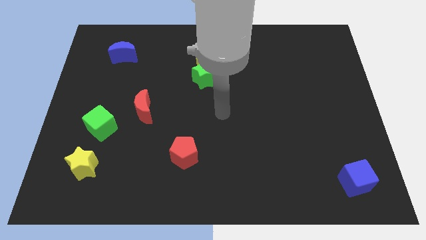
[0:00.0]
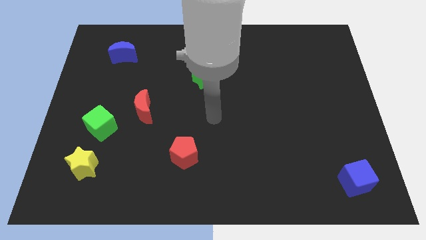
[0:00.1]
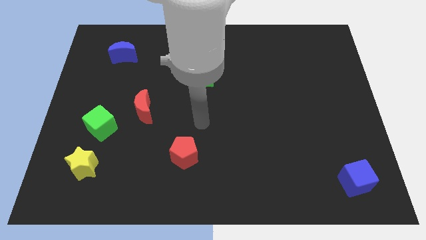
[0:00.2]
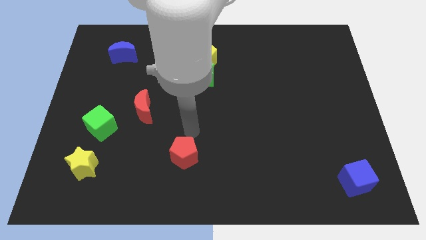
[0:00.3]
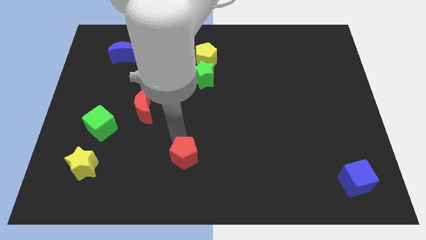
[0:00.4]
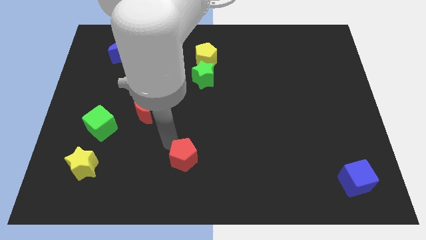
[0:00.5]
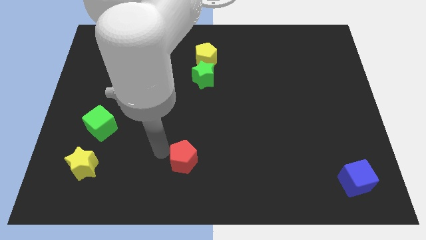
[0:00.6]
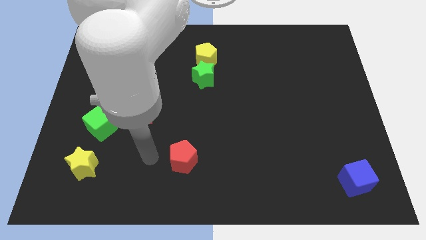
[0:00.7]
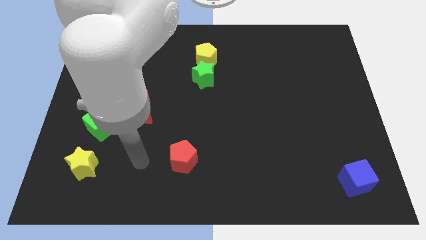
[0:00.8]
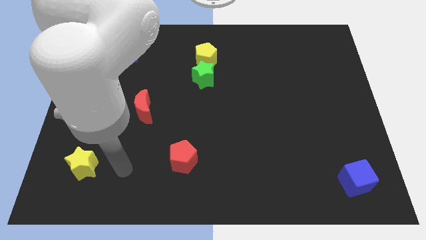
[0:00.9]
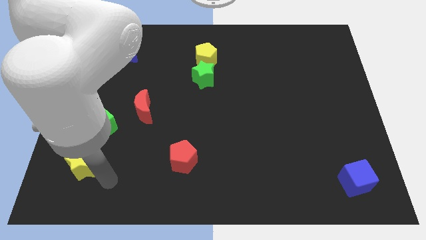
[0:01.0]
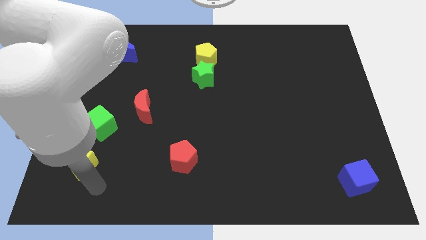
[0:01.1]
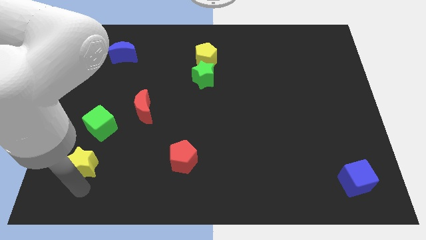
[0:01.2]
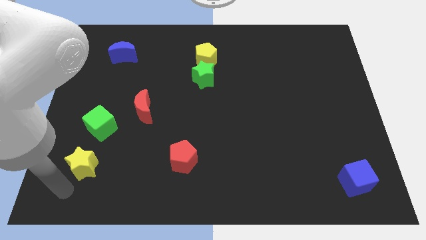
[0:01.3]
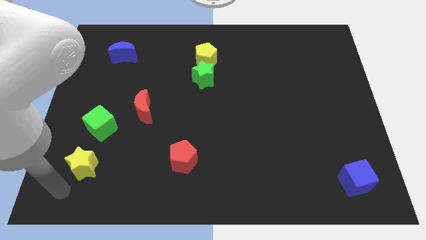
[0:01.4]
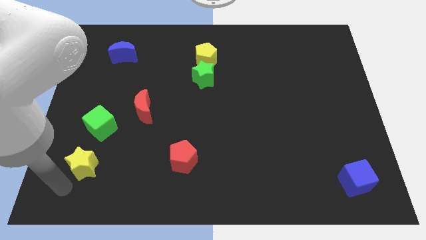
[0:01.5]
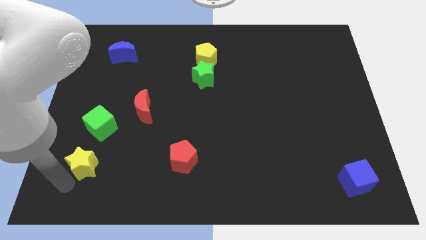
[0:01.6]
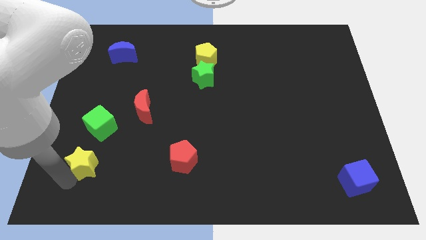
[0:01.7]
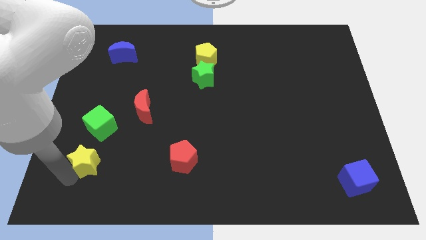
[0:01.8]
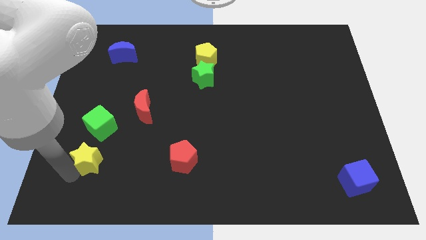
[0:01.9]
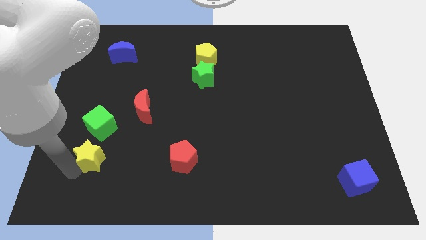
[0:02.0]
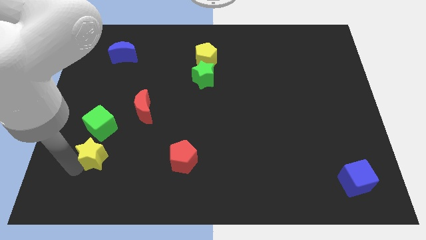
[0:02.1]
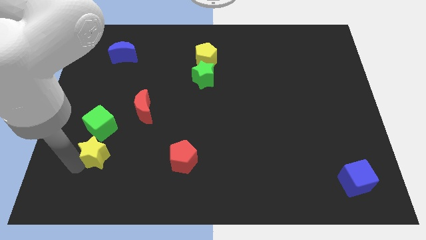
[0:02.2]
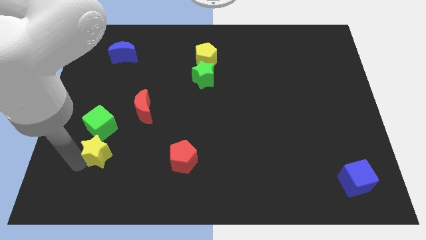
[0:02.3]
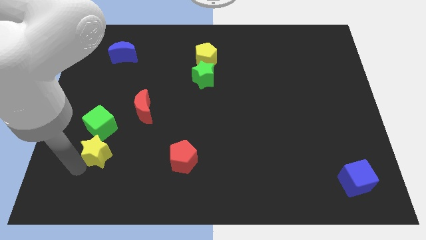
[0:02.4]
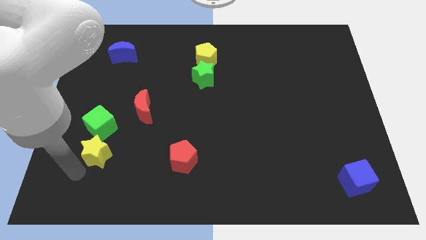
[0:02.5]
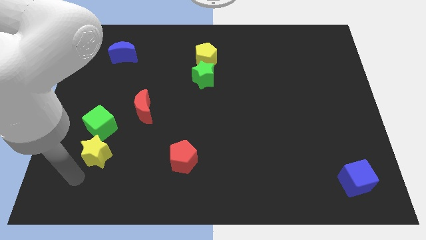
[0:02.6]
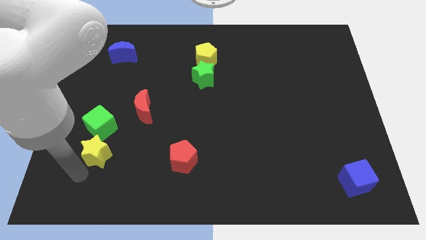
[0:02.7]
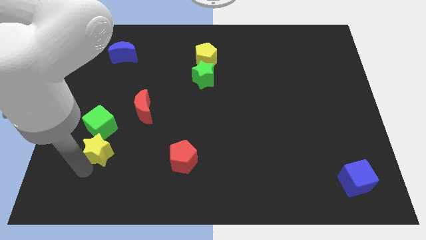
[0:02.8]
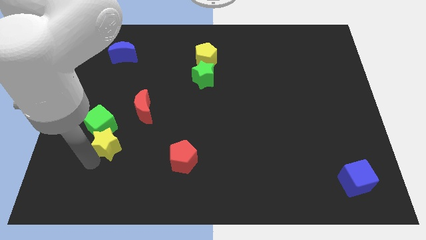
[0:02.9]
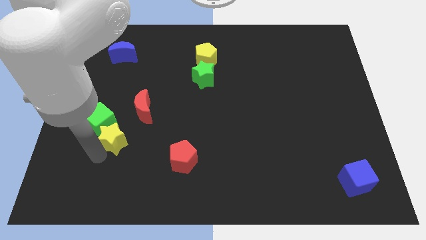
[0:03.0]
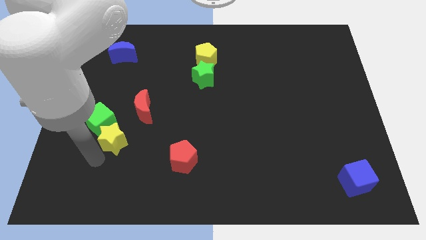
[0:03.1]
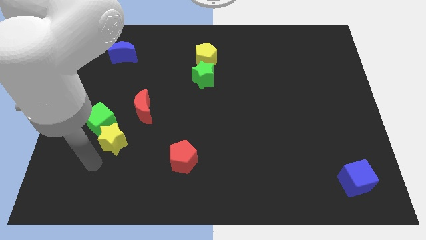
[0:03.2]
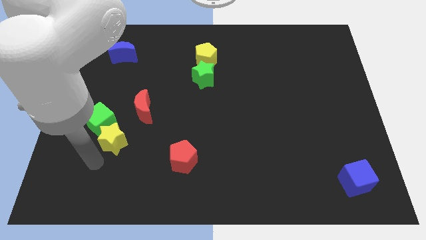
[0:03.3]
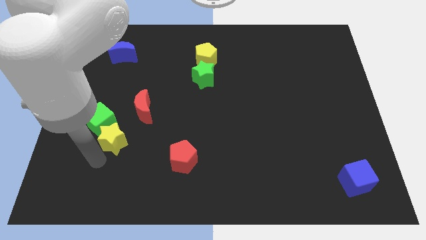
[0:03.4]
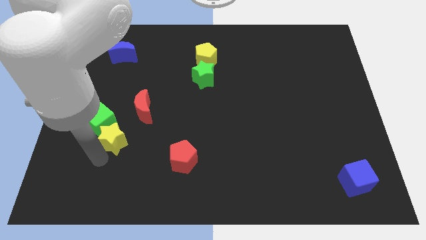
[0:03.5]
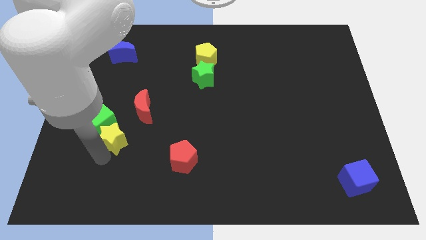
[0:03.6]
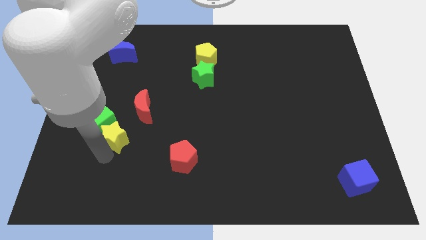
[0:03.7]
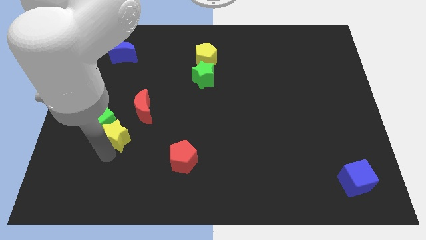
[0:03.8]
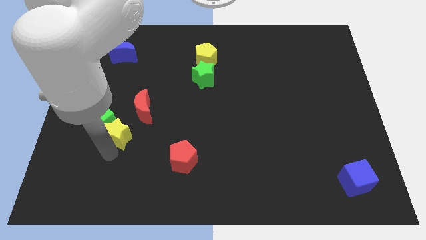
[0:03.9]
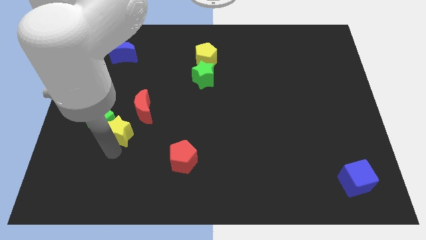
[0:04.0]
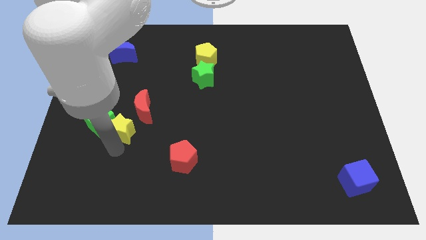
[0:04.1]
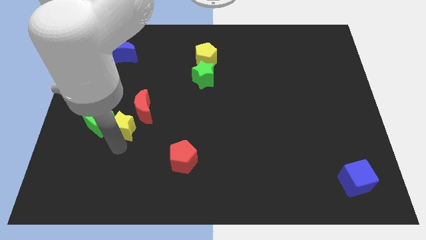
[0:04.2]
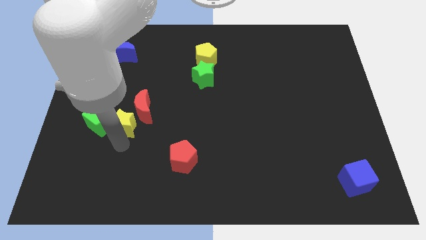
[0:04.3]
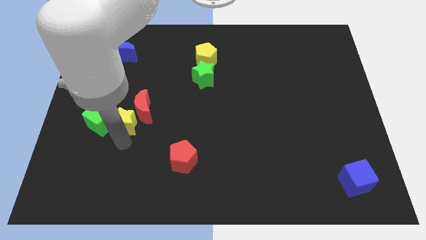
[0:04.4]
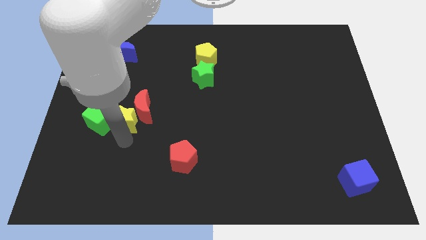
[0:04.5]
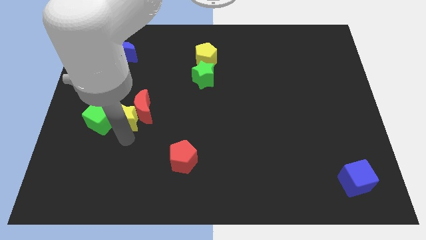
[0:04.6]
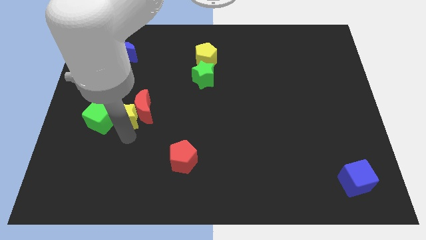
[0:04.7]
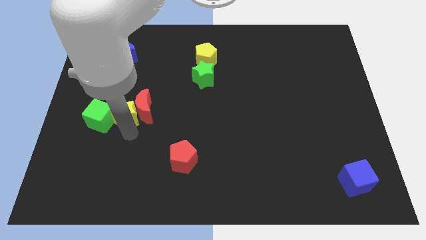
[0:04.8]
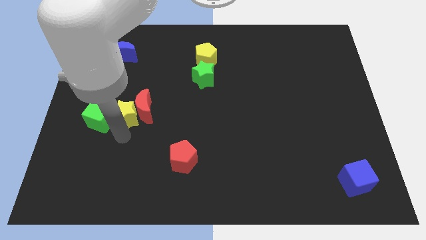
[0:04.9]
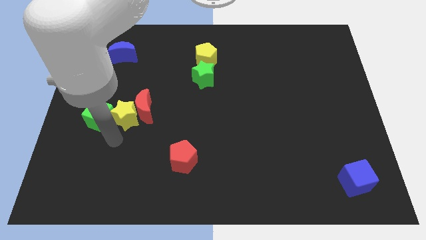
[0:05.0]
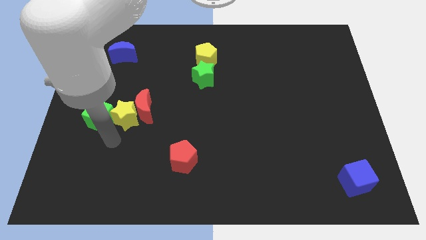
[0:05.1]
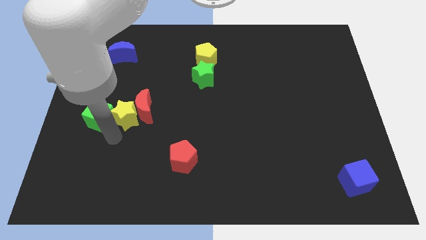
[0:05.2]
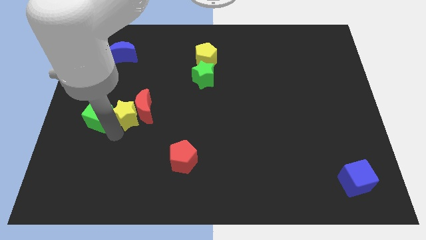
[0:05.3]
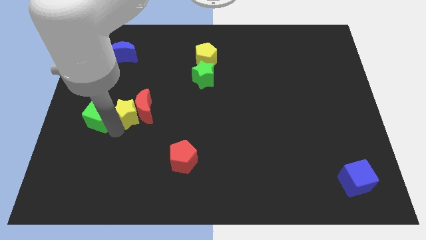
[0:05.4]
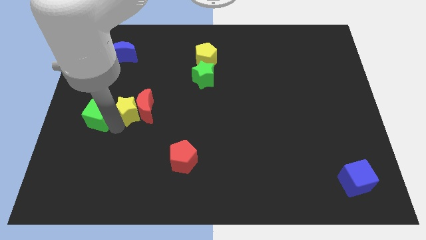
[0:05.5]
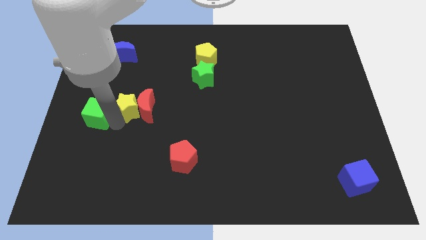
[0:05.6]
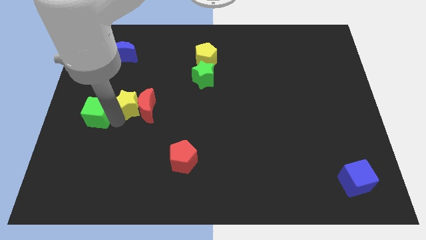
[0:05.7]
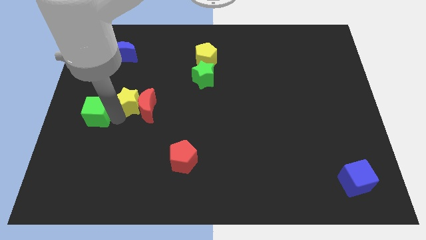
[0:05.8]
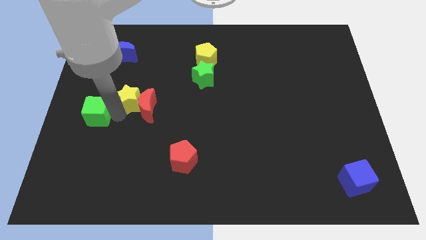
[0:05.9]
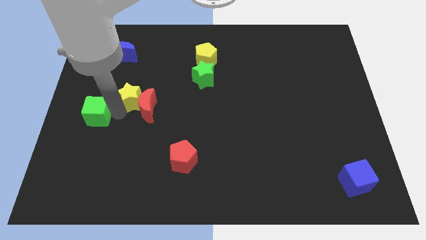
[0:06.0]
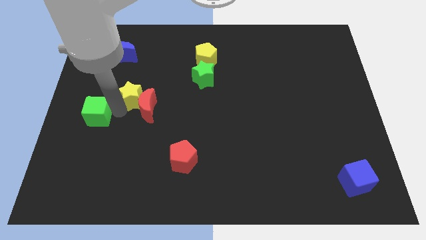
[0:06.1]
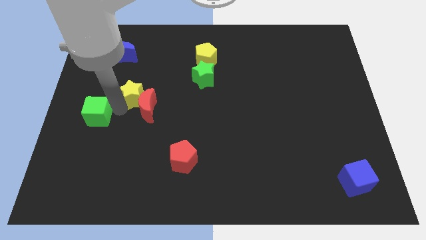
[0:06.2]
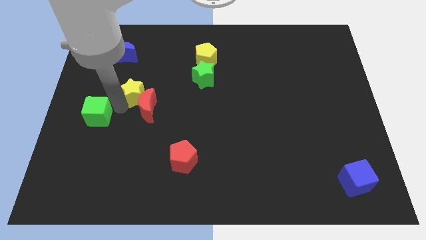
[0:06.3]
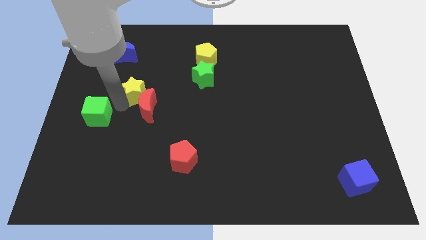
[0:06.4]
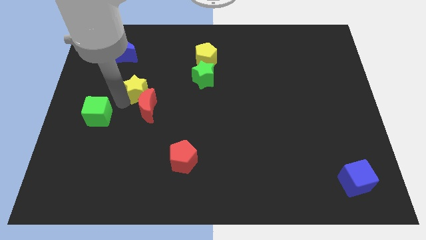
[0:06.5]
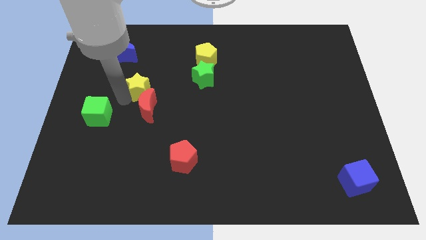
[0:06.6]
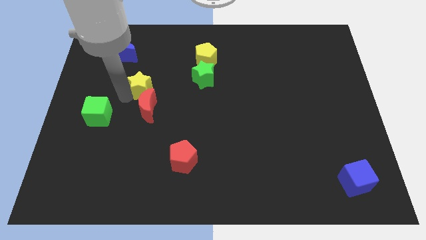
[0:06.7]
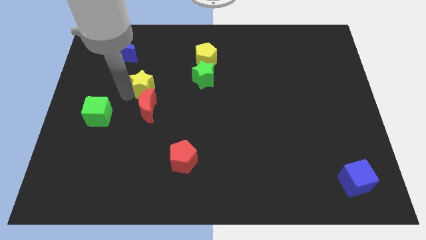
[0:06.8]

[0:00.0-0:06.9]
move the yellow star to the left side of the green star
